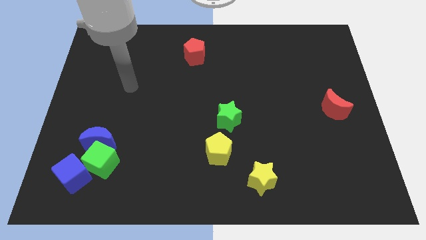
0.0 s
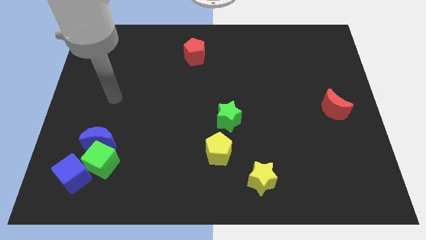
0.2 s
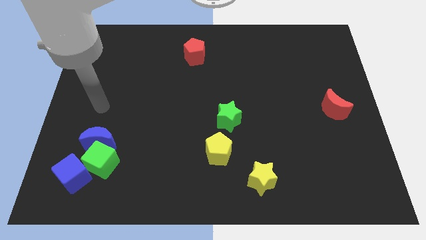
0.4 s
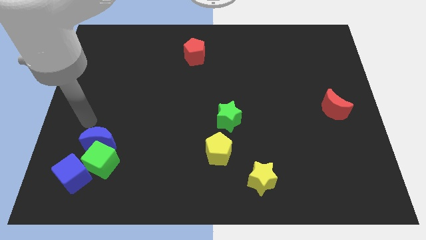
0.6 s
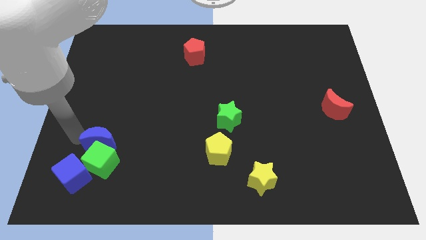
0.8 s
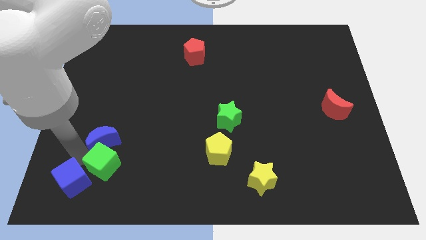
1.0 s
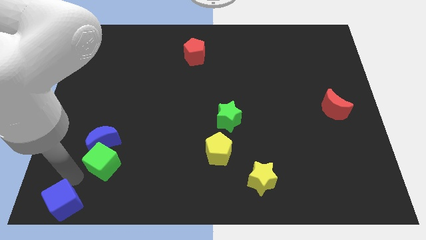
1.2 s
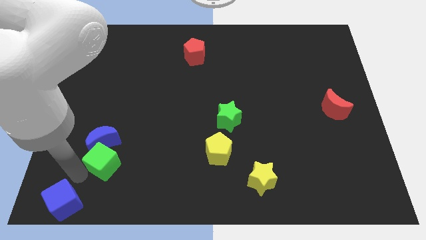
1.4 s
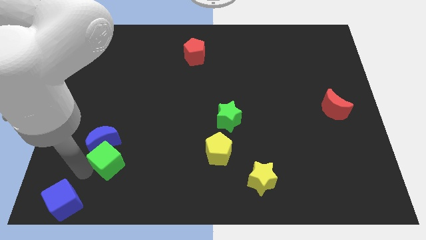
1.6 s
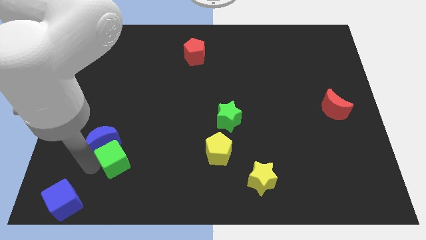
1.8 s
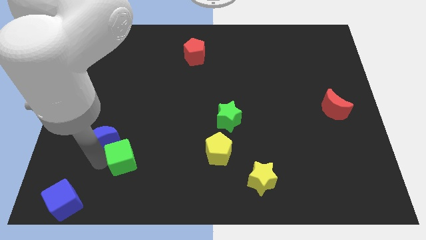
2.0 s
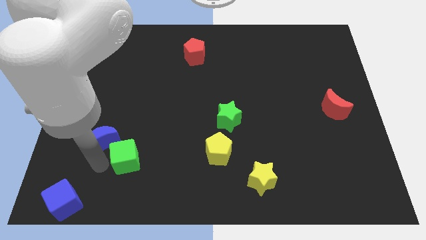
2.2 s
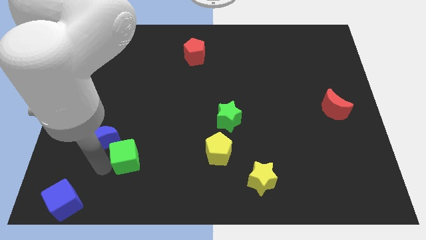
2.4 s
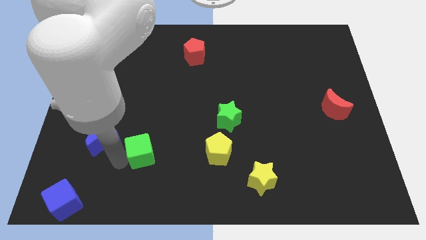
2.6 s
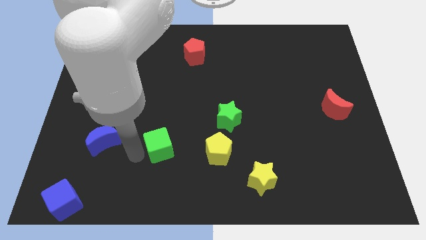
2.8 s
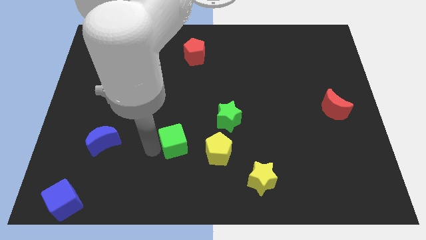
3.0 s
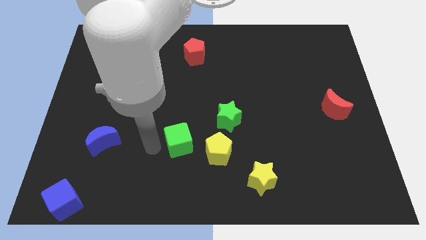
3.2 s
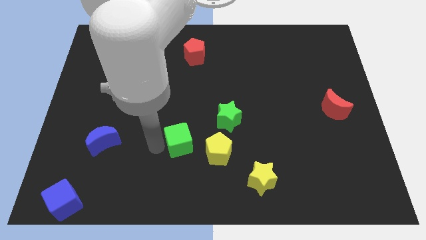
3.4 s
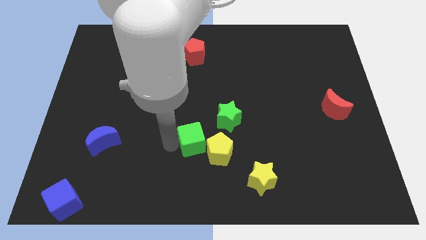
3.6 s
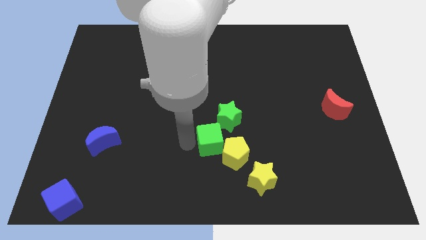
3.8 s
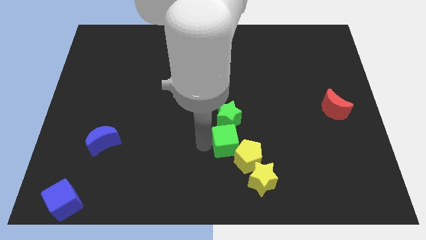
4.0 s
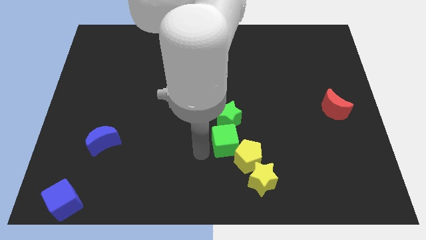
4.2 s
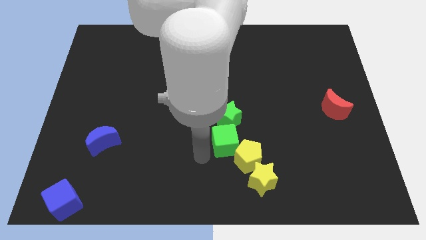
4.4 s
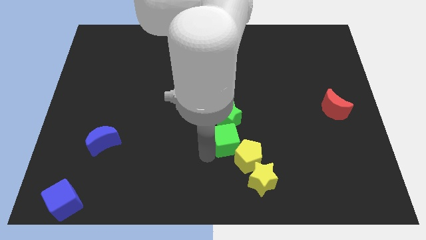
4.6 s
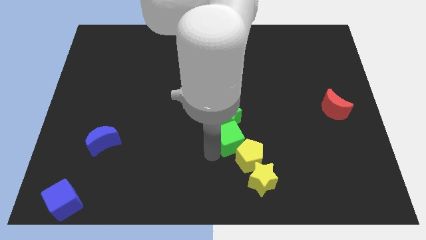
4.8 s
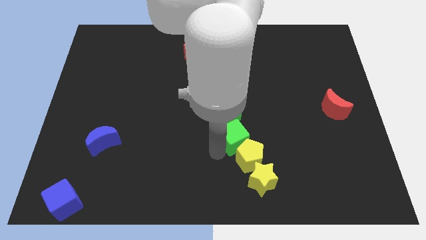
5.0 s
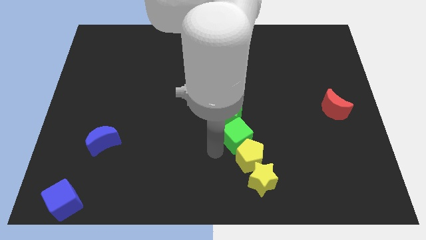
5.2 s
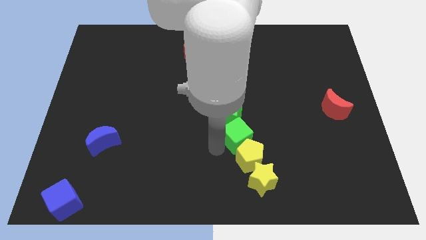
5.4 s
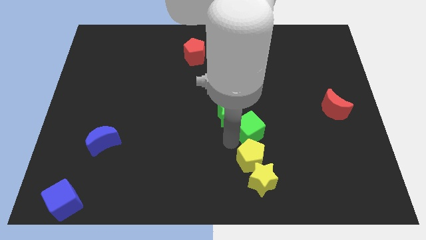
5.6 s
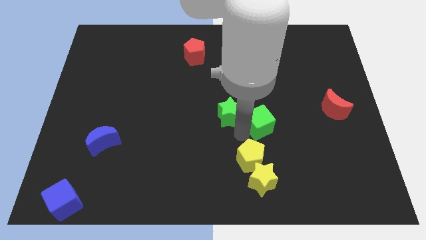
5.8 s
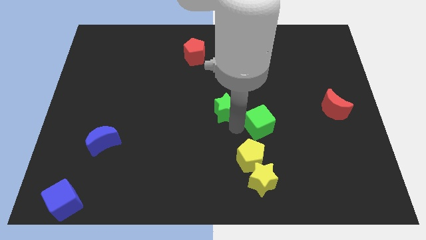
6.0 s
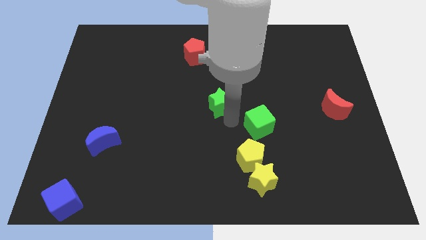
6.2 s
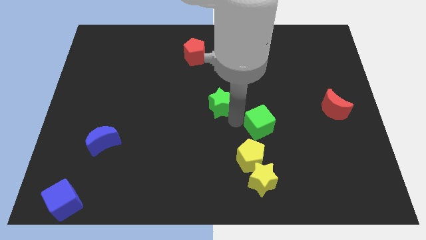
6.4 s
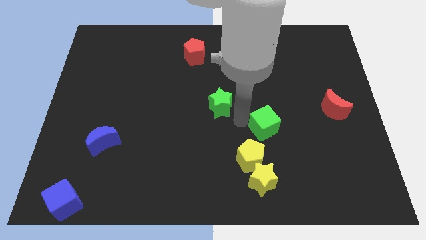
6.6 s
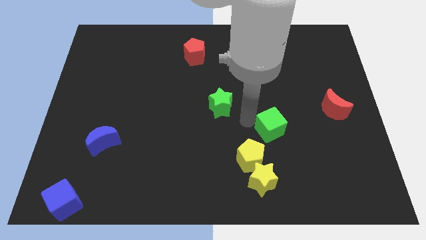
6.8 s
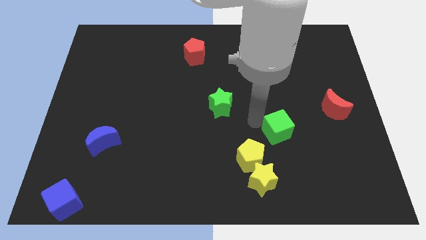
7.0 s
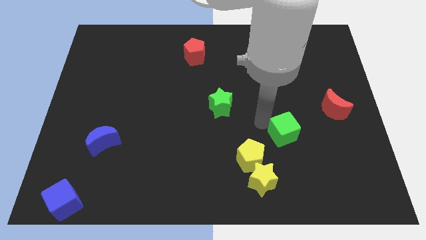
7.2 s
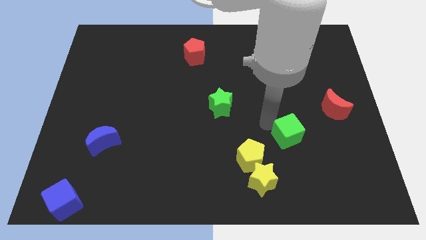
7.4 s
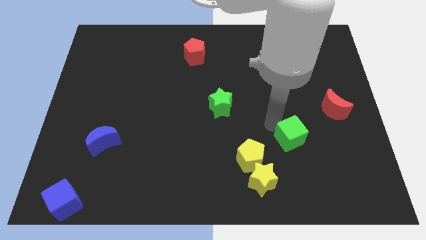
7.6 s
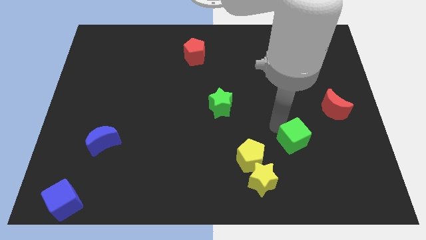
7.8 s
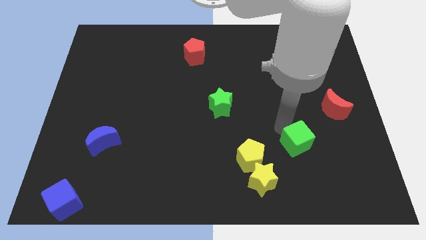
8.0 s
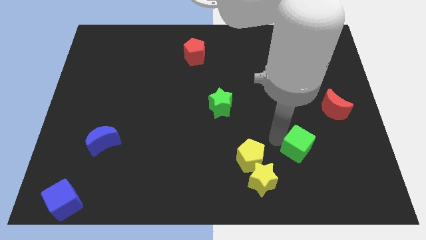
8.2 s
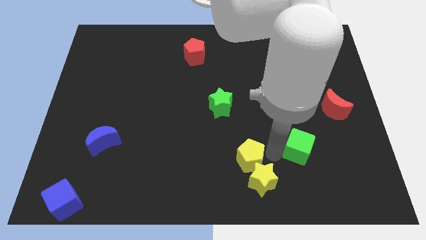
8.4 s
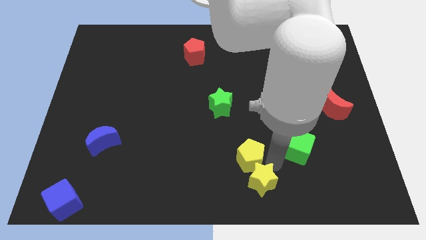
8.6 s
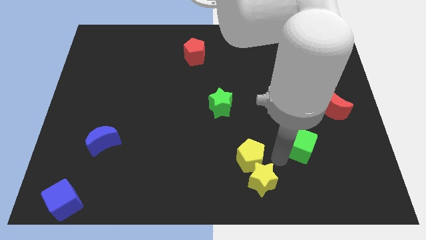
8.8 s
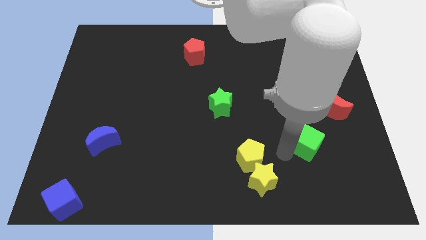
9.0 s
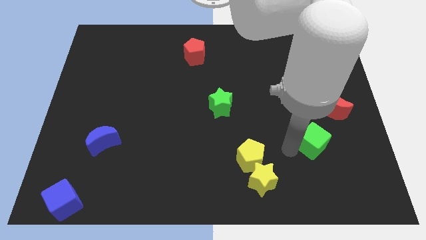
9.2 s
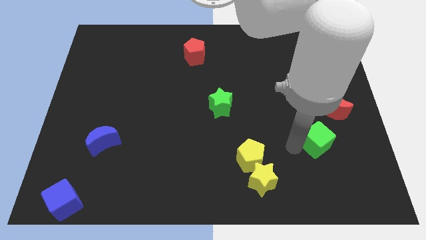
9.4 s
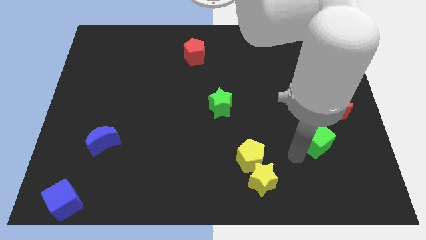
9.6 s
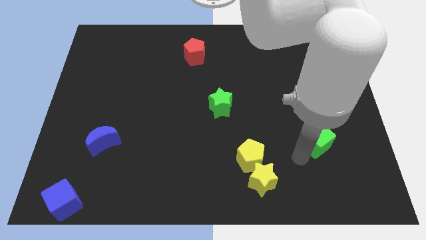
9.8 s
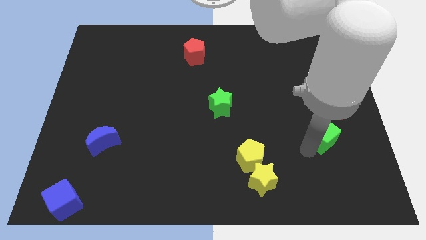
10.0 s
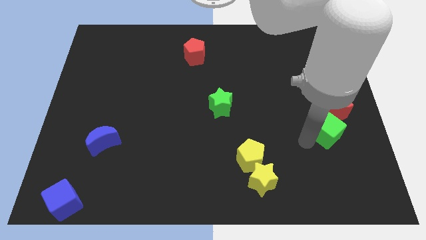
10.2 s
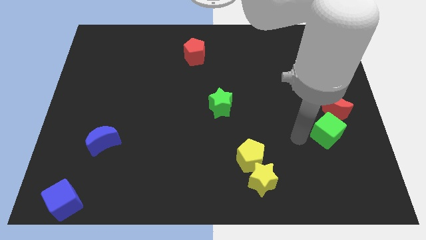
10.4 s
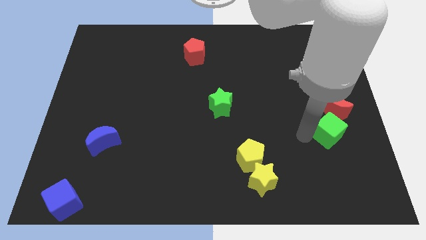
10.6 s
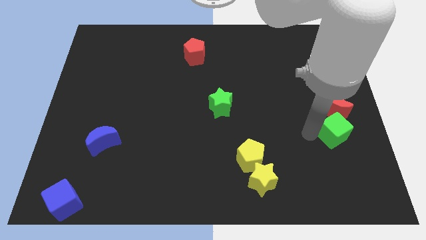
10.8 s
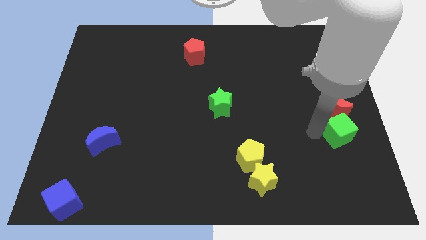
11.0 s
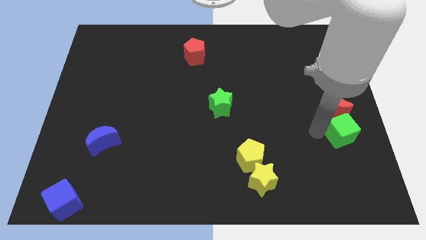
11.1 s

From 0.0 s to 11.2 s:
put the green cube to the right side of the board

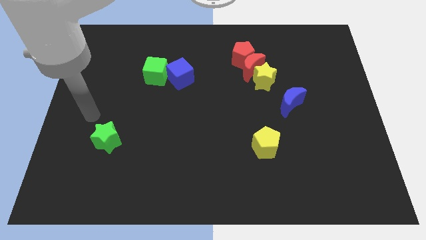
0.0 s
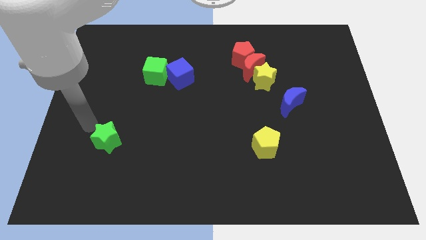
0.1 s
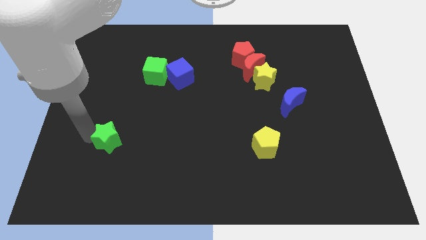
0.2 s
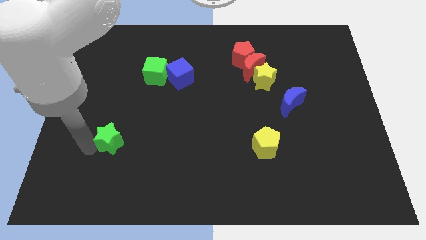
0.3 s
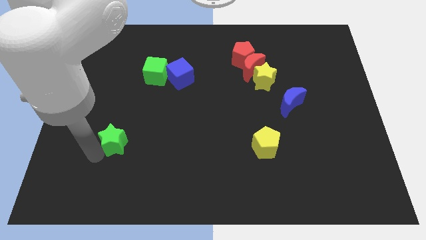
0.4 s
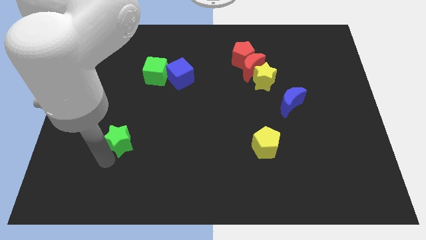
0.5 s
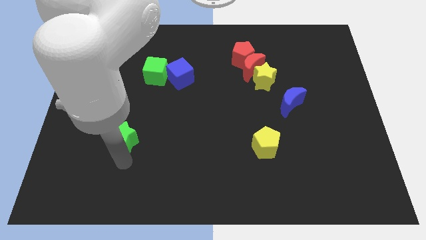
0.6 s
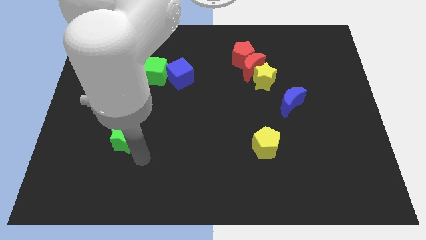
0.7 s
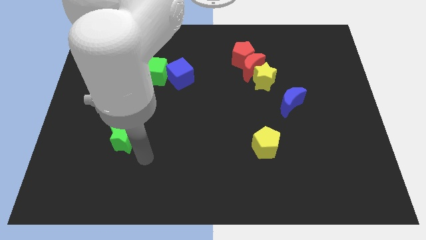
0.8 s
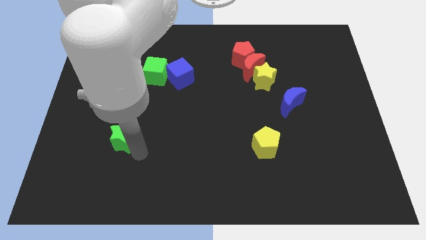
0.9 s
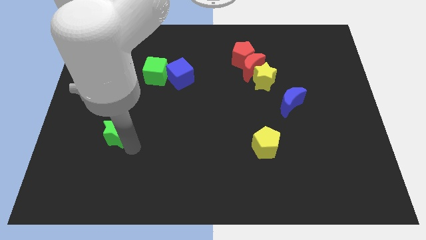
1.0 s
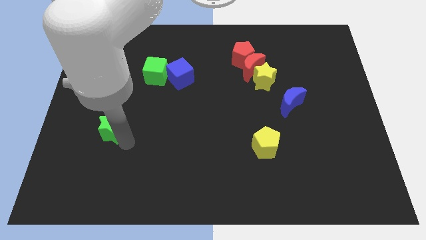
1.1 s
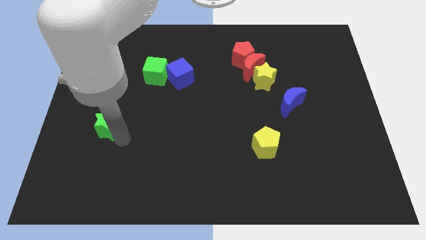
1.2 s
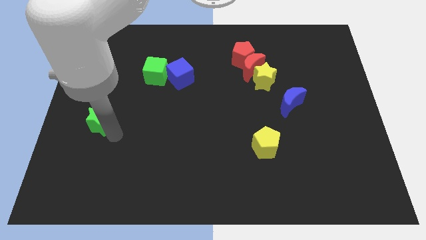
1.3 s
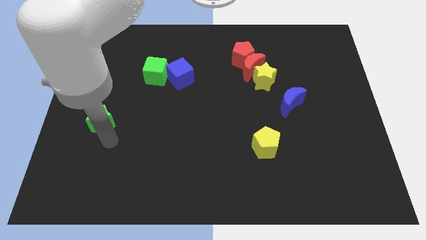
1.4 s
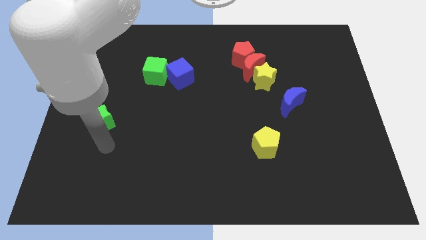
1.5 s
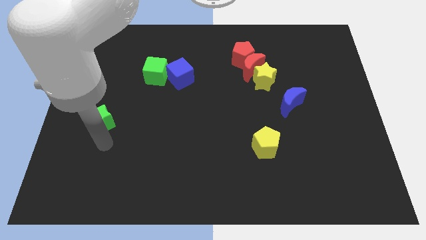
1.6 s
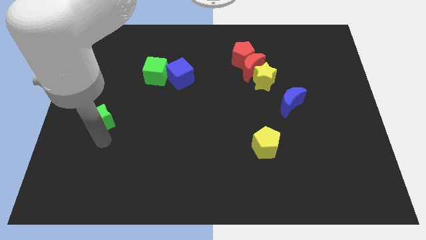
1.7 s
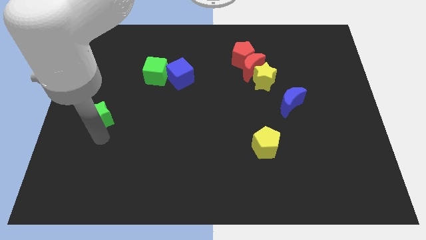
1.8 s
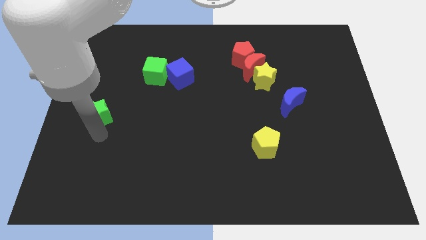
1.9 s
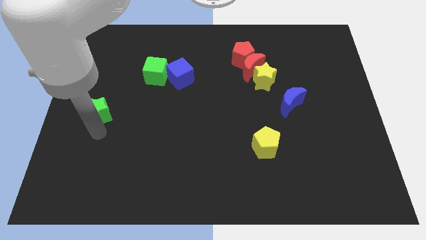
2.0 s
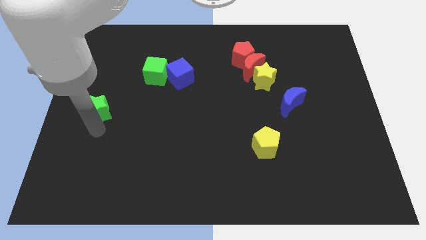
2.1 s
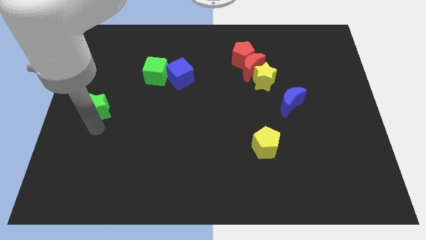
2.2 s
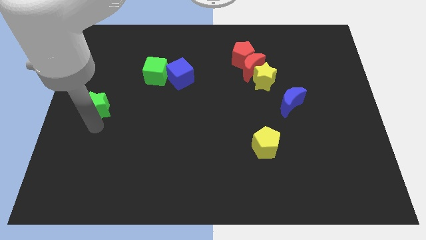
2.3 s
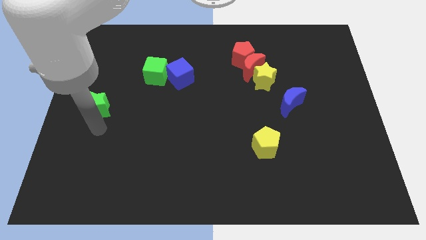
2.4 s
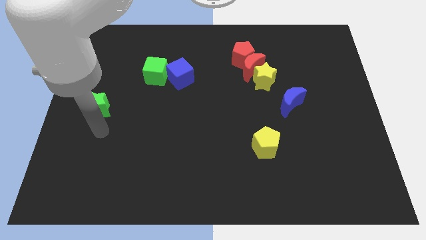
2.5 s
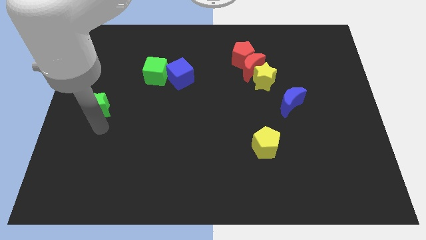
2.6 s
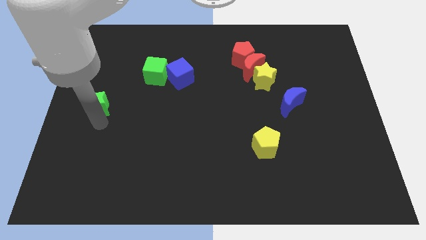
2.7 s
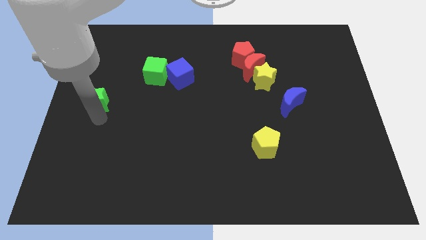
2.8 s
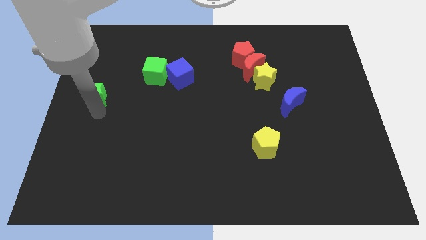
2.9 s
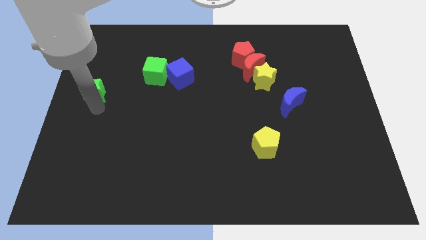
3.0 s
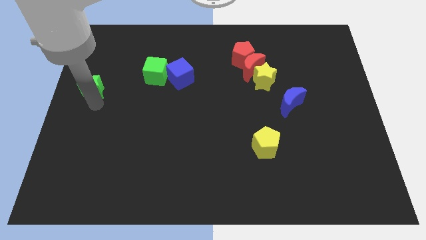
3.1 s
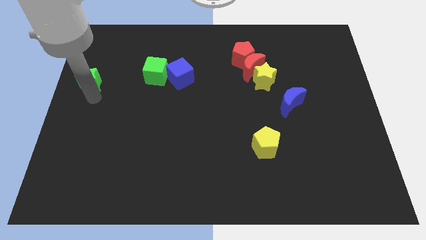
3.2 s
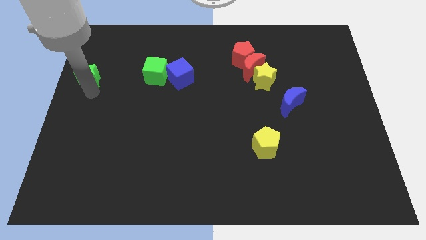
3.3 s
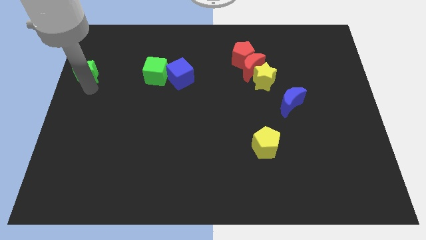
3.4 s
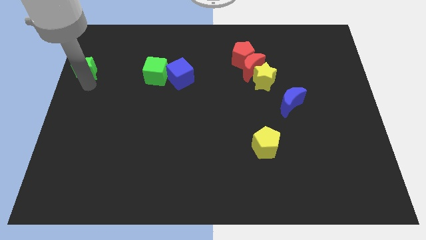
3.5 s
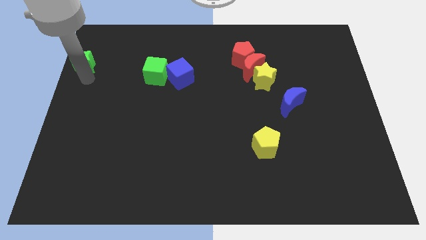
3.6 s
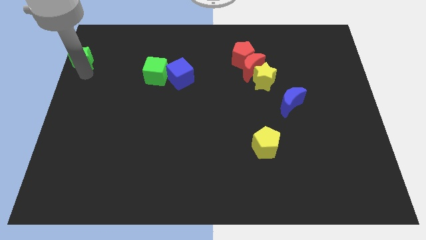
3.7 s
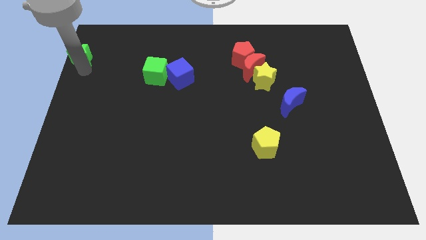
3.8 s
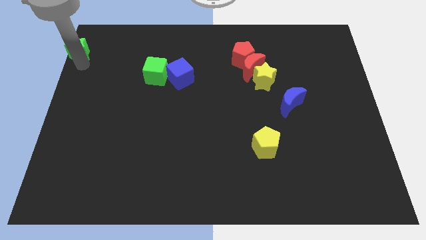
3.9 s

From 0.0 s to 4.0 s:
slide the green star to the top left of the board
